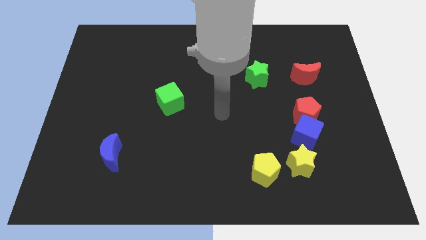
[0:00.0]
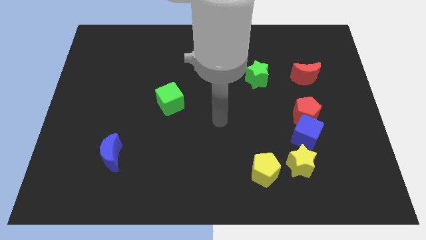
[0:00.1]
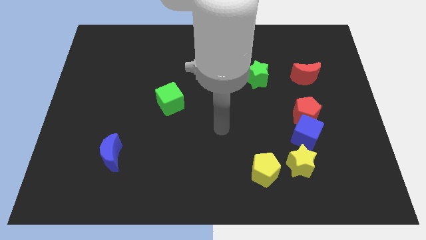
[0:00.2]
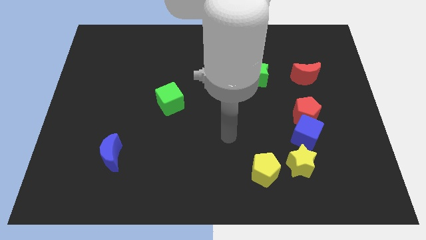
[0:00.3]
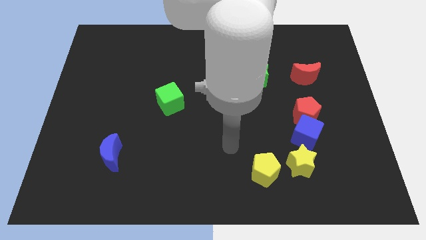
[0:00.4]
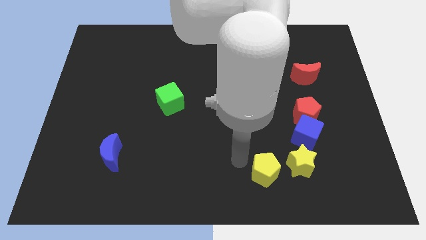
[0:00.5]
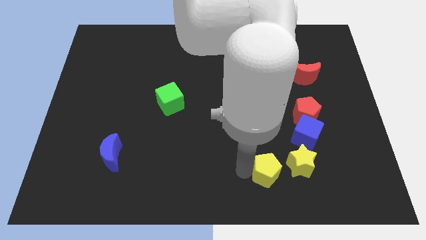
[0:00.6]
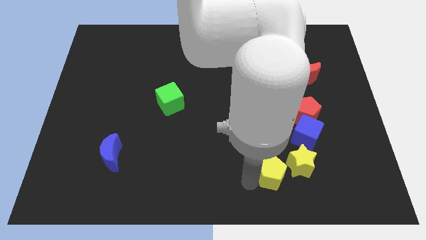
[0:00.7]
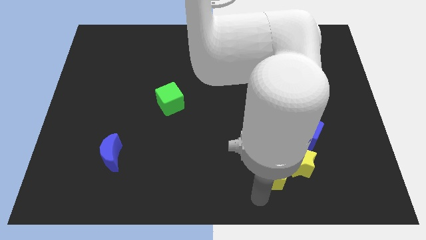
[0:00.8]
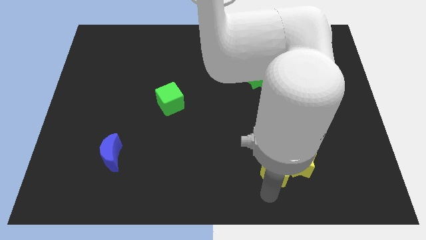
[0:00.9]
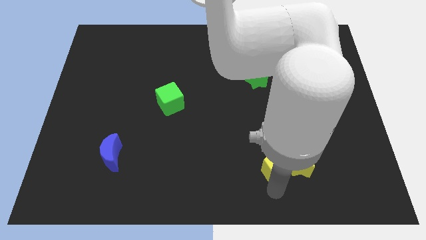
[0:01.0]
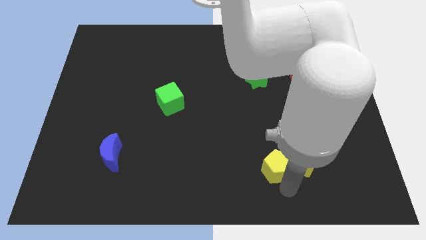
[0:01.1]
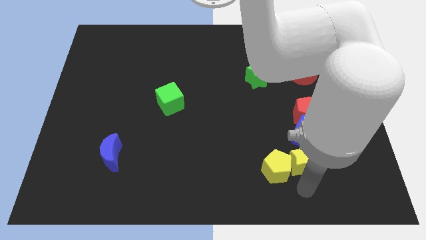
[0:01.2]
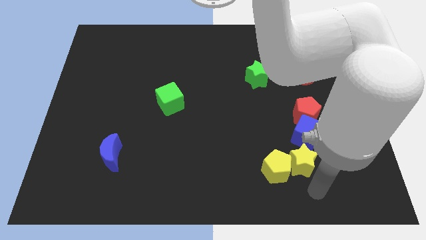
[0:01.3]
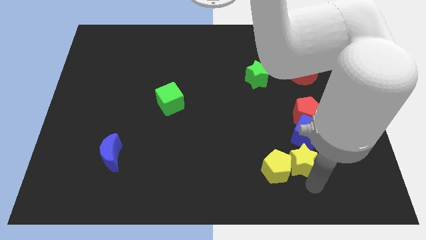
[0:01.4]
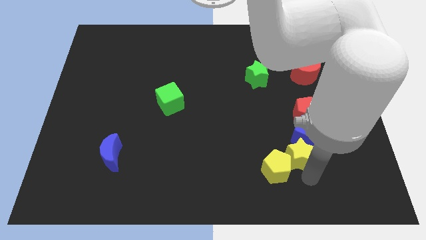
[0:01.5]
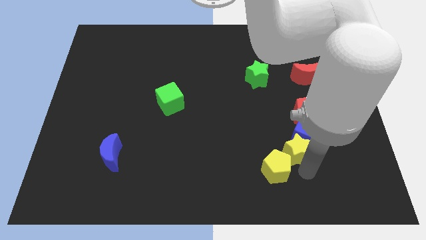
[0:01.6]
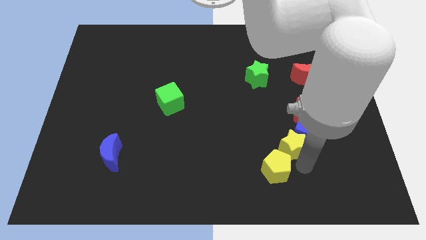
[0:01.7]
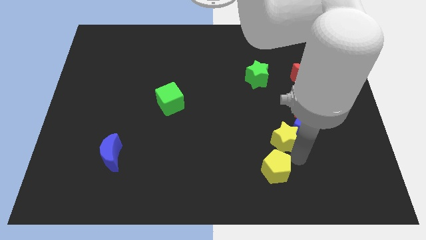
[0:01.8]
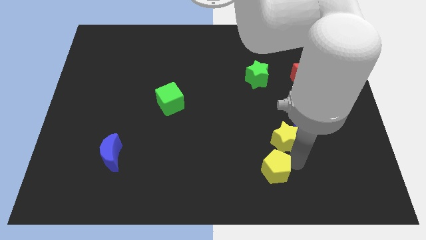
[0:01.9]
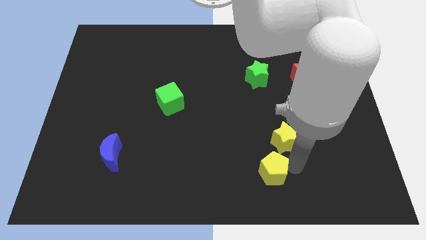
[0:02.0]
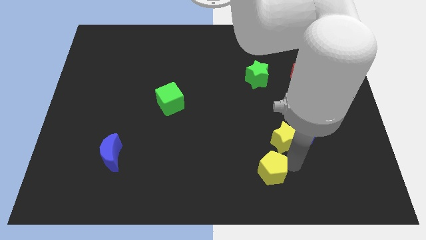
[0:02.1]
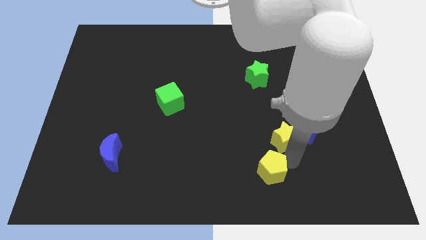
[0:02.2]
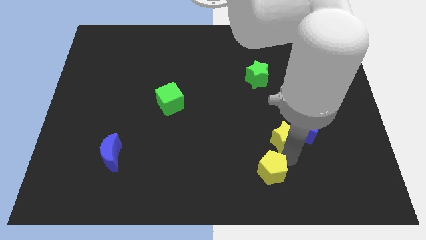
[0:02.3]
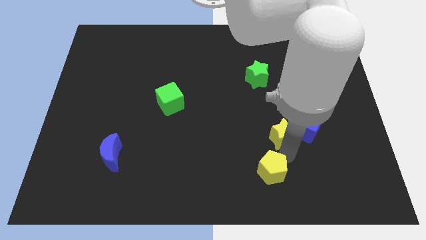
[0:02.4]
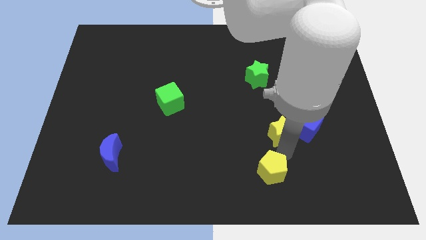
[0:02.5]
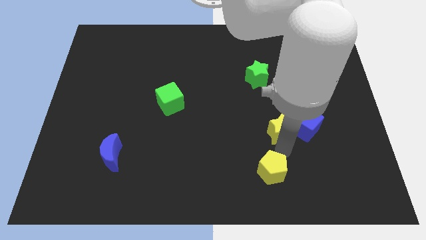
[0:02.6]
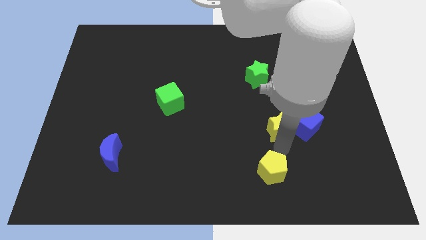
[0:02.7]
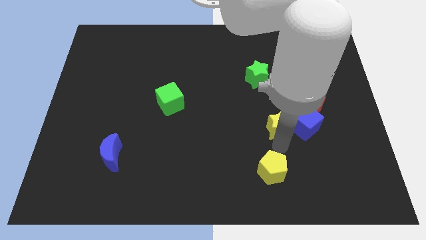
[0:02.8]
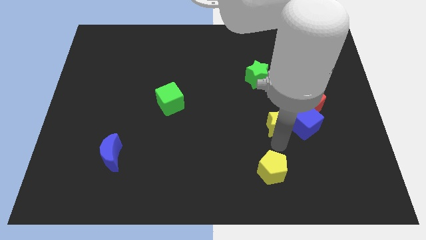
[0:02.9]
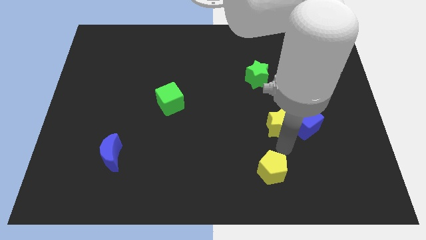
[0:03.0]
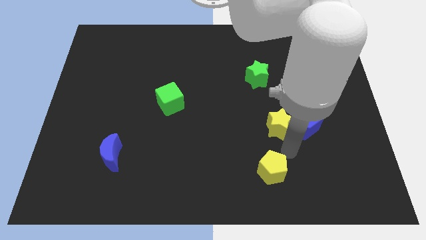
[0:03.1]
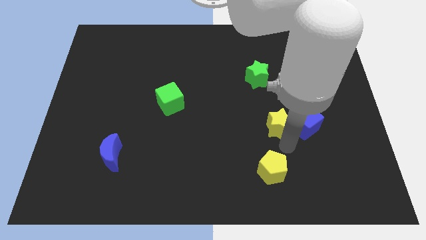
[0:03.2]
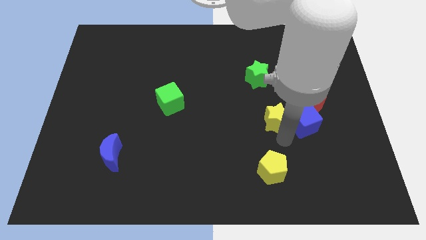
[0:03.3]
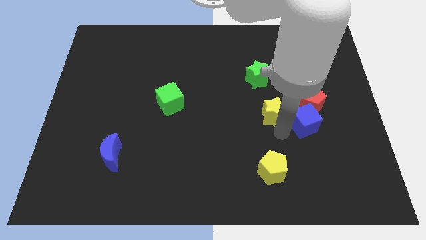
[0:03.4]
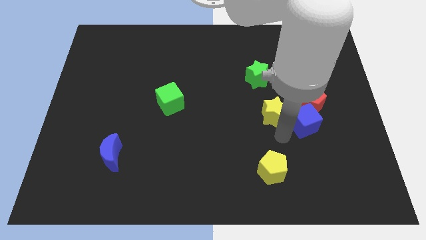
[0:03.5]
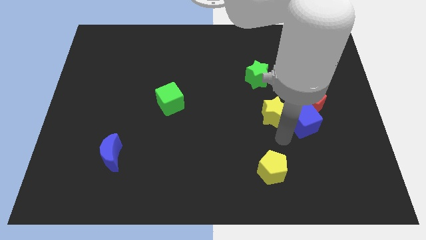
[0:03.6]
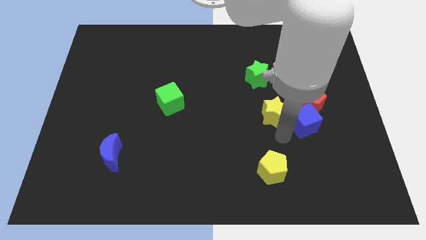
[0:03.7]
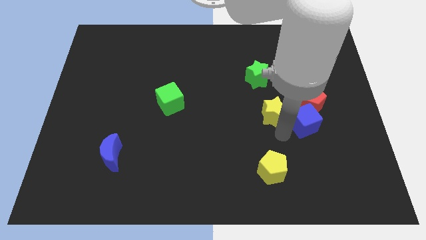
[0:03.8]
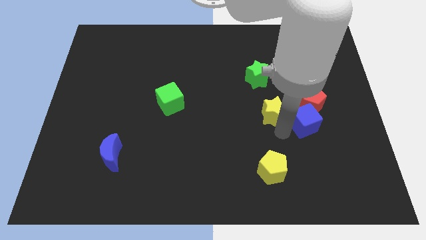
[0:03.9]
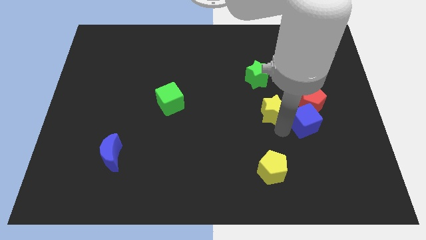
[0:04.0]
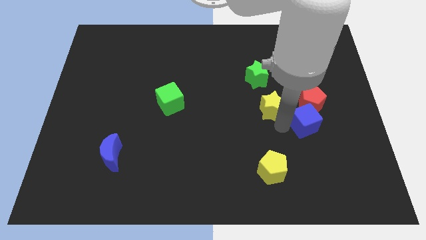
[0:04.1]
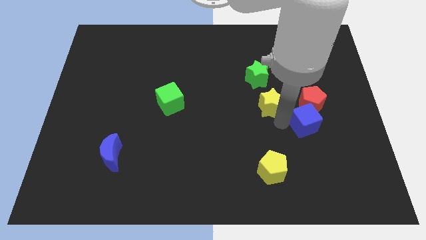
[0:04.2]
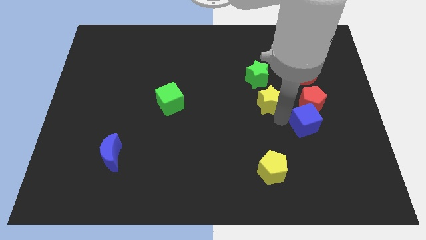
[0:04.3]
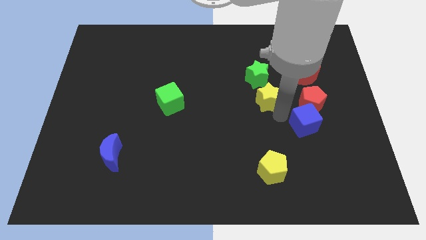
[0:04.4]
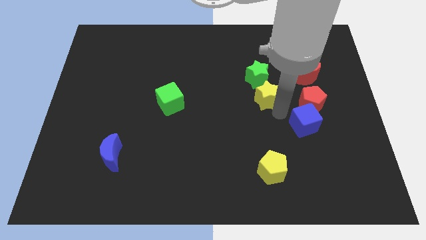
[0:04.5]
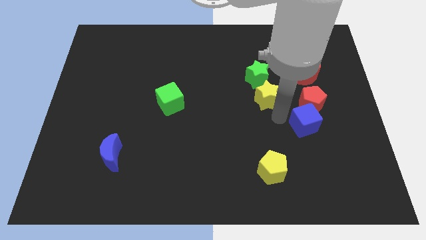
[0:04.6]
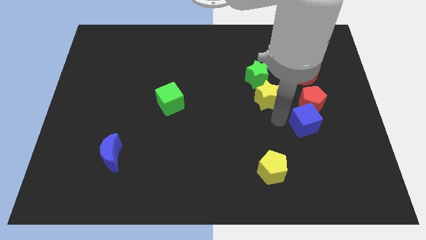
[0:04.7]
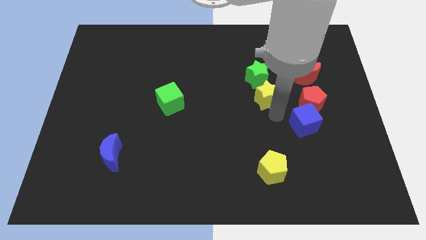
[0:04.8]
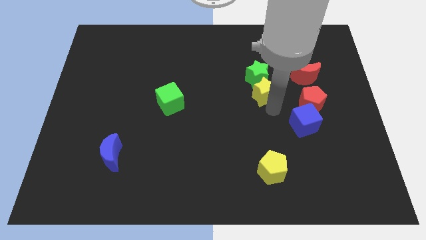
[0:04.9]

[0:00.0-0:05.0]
put the yellow star close to the green star

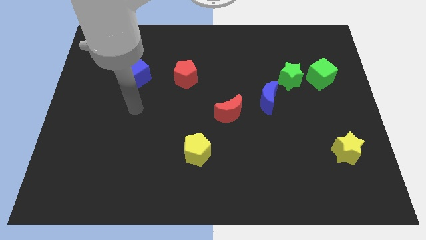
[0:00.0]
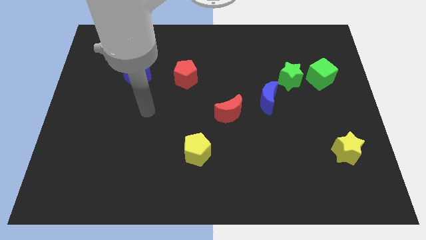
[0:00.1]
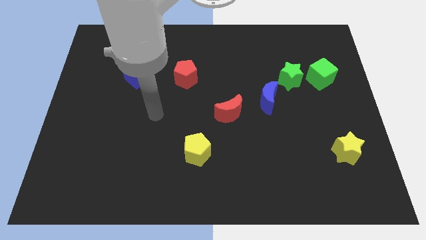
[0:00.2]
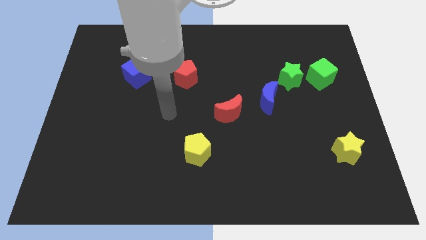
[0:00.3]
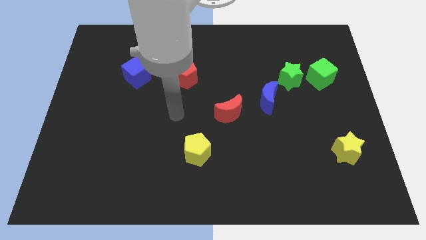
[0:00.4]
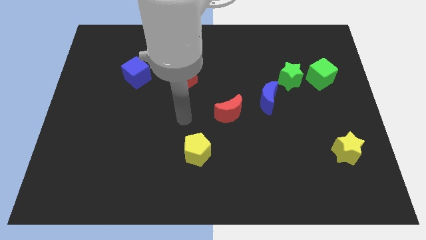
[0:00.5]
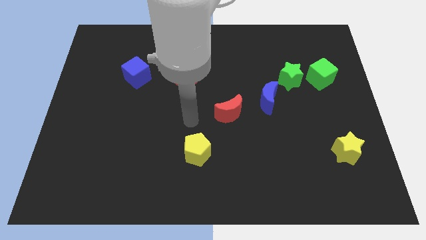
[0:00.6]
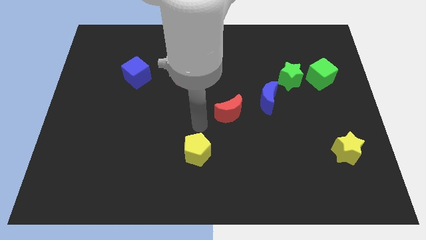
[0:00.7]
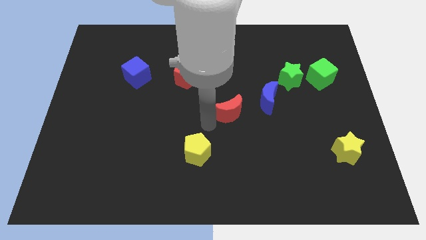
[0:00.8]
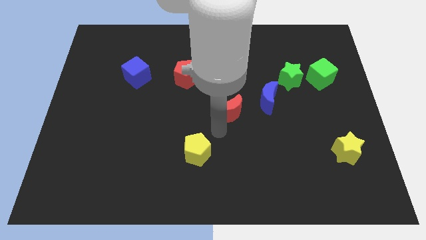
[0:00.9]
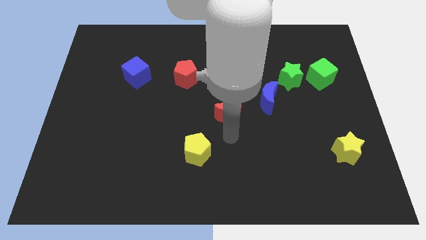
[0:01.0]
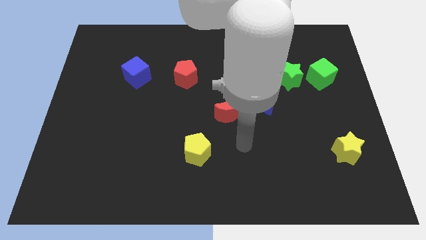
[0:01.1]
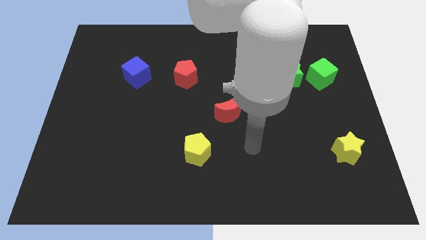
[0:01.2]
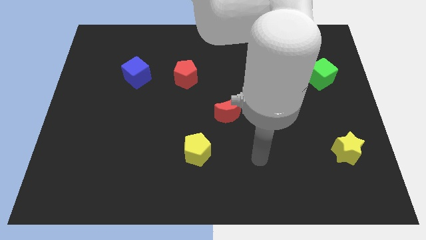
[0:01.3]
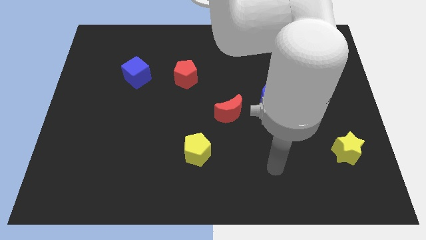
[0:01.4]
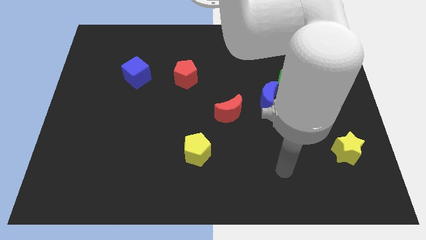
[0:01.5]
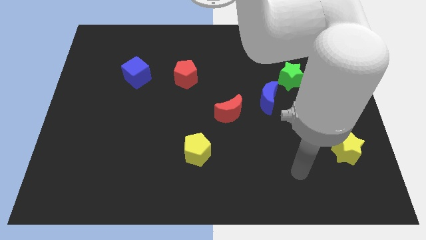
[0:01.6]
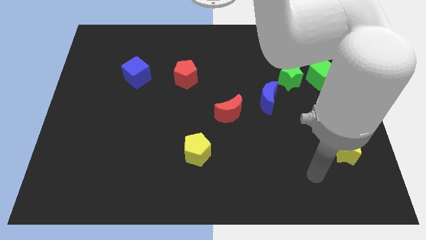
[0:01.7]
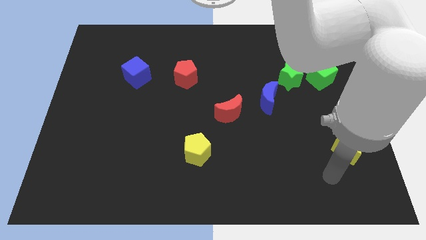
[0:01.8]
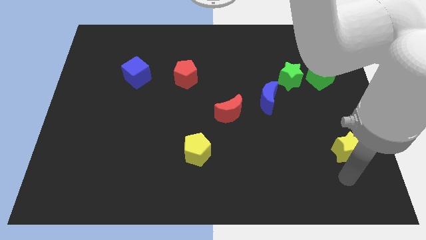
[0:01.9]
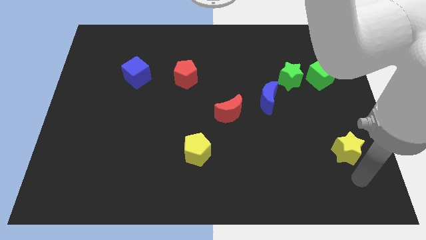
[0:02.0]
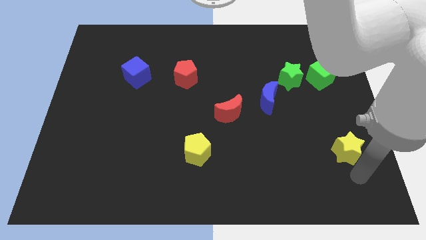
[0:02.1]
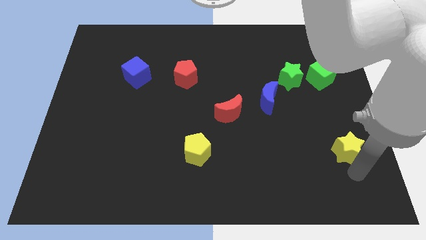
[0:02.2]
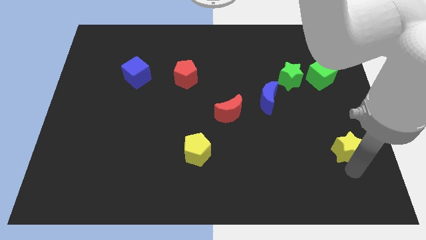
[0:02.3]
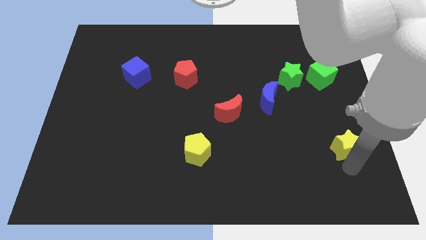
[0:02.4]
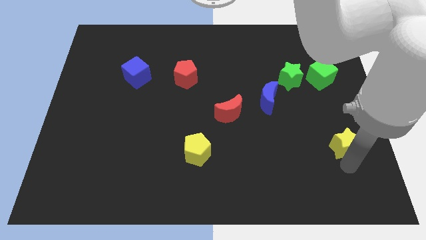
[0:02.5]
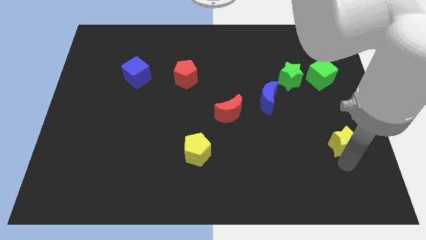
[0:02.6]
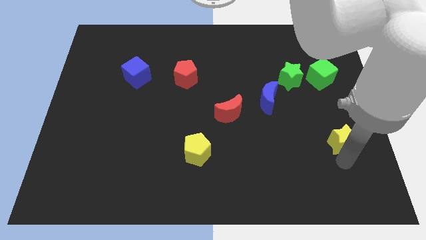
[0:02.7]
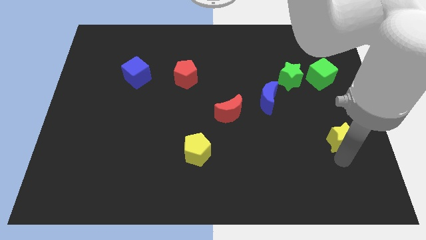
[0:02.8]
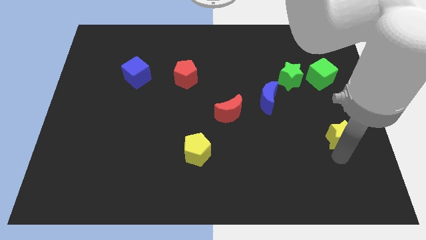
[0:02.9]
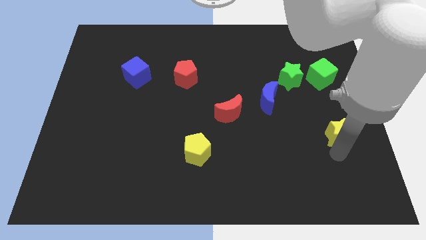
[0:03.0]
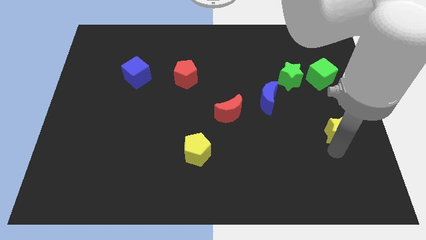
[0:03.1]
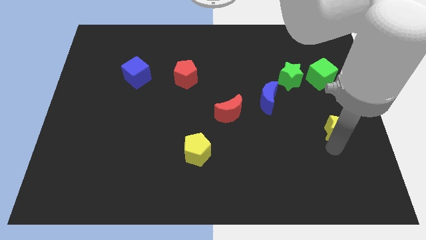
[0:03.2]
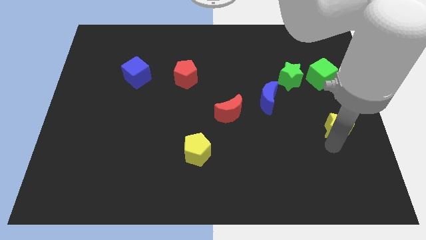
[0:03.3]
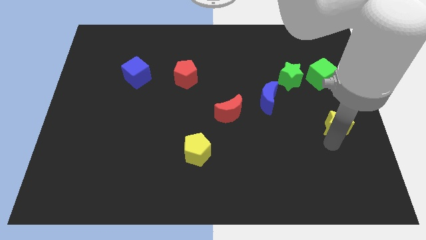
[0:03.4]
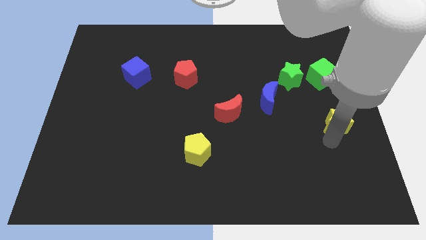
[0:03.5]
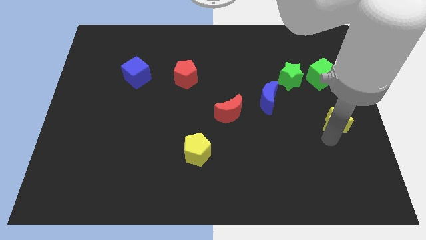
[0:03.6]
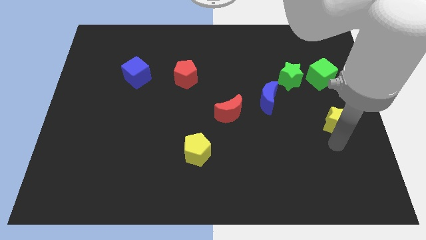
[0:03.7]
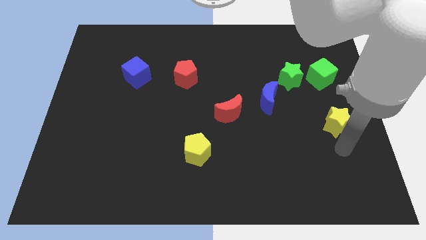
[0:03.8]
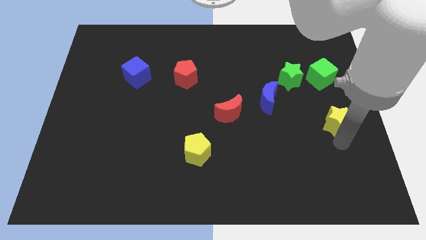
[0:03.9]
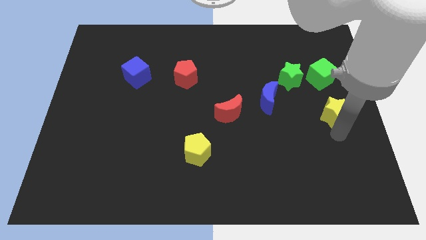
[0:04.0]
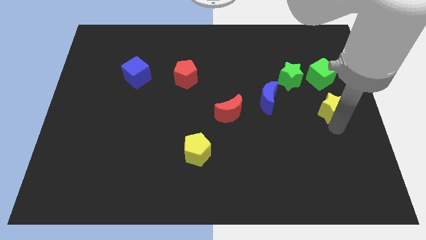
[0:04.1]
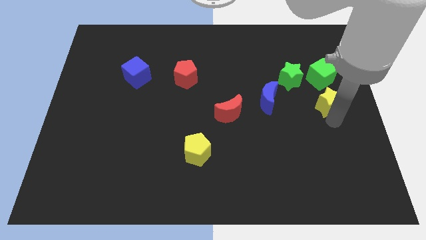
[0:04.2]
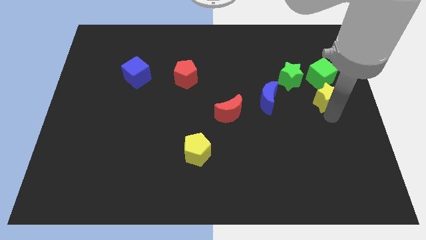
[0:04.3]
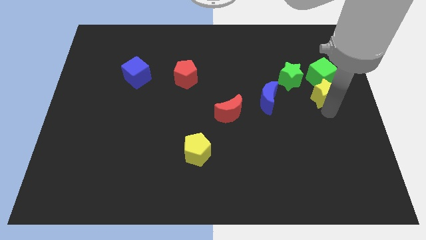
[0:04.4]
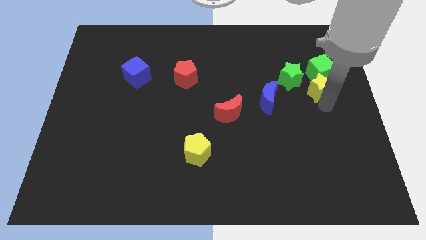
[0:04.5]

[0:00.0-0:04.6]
put the yellow star next to the green cube
